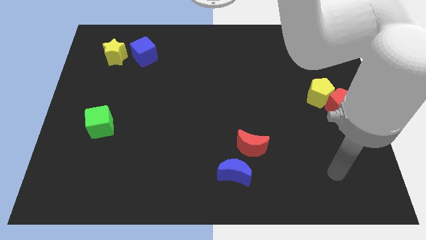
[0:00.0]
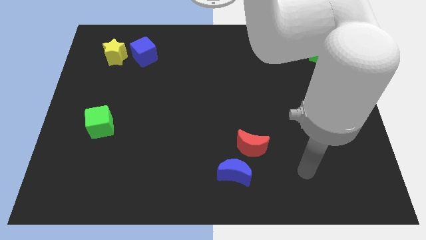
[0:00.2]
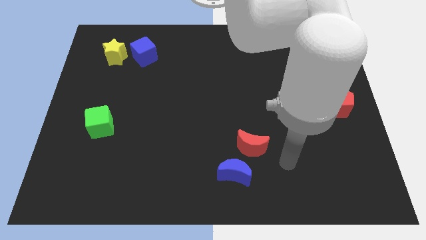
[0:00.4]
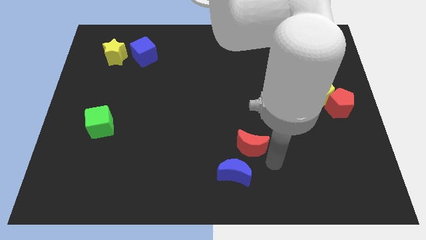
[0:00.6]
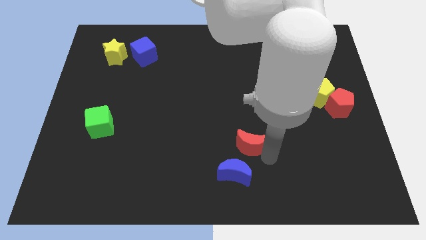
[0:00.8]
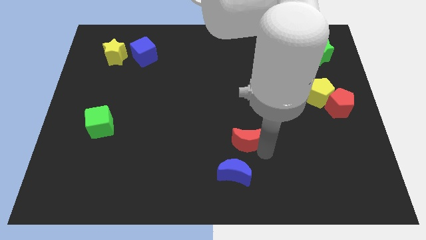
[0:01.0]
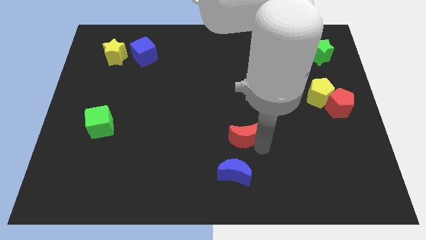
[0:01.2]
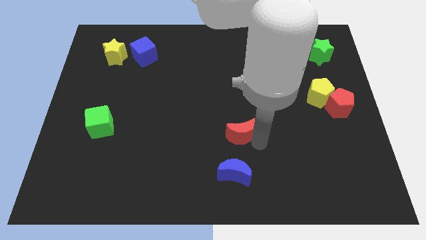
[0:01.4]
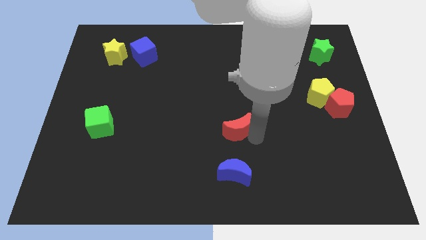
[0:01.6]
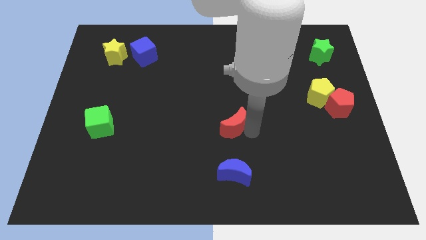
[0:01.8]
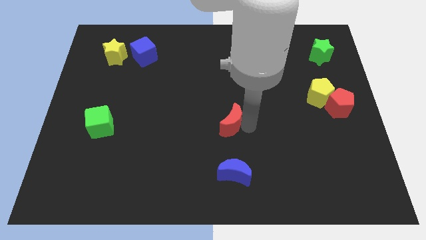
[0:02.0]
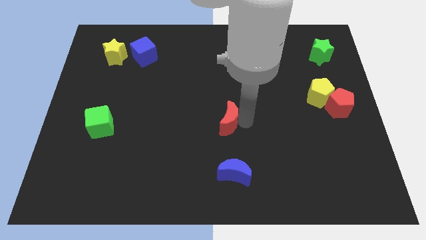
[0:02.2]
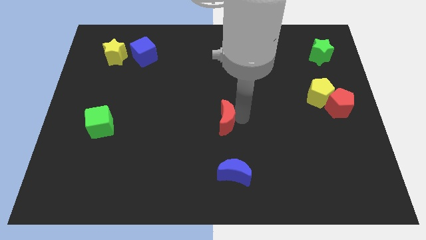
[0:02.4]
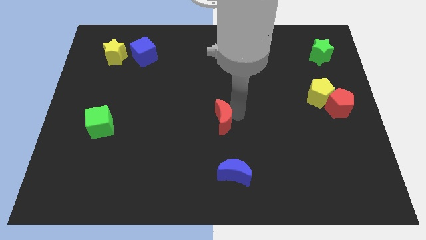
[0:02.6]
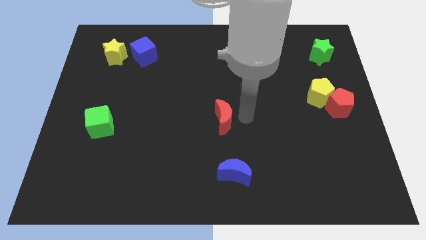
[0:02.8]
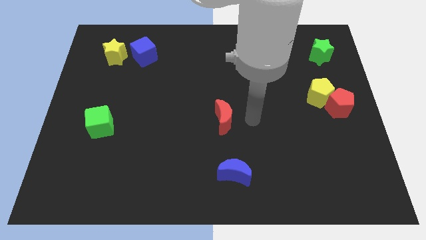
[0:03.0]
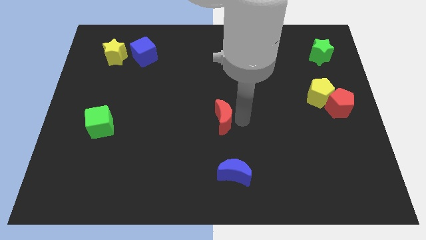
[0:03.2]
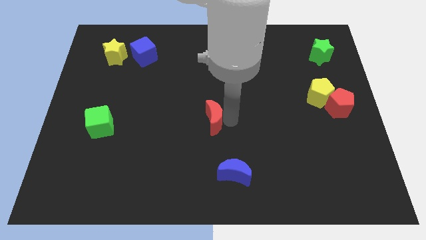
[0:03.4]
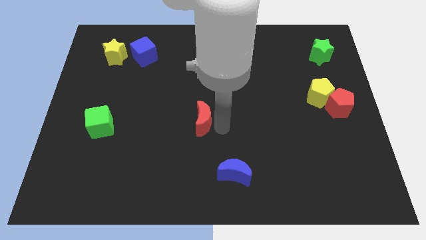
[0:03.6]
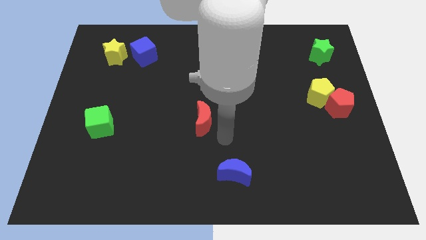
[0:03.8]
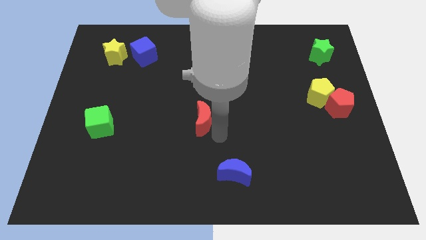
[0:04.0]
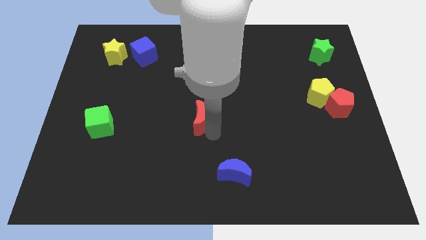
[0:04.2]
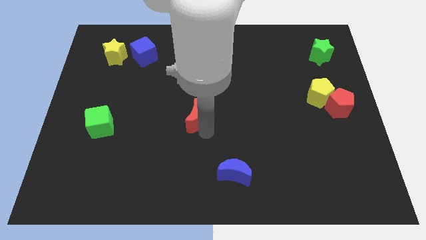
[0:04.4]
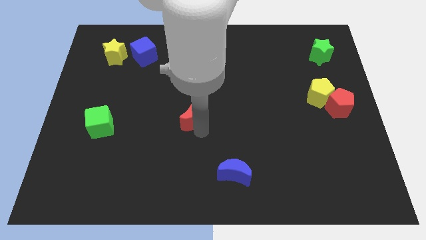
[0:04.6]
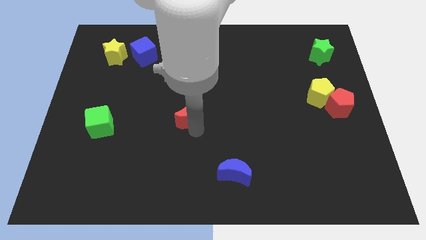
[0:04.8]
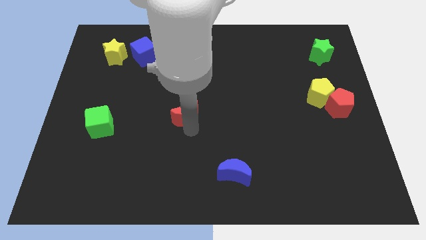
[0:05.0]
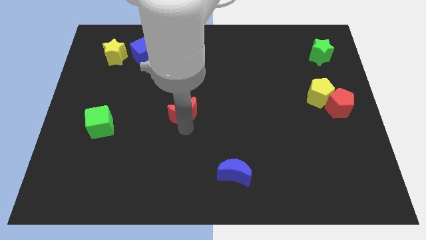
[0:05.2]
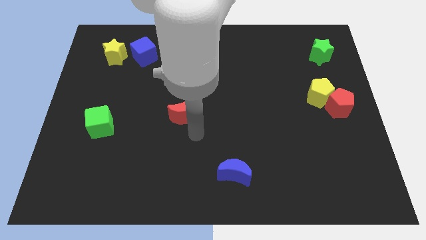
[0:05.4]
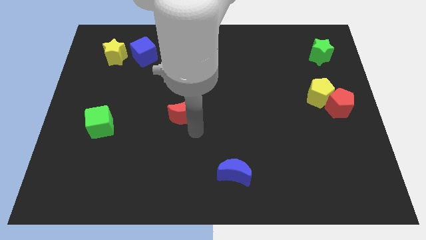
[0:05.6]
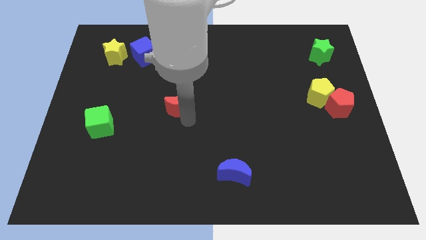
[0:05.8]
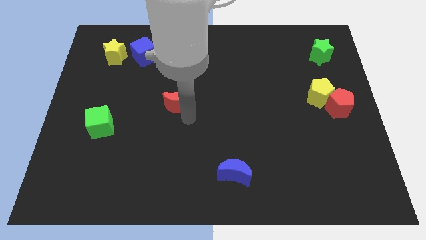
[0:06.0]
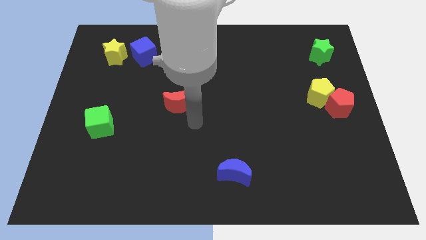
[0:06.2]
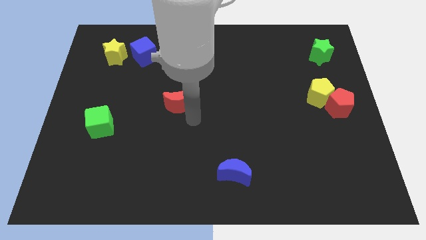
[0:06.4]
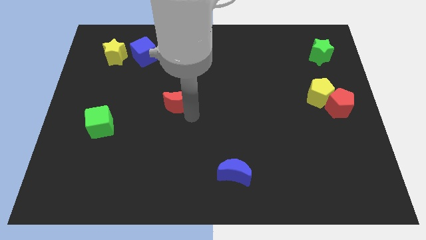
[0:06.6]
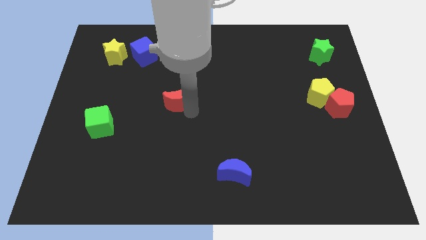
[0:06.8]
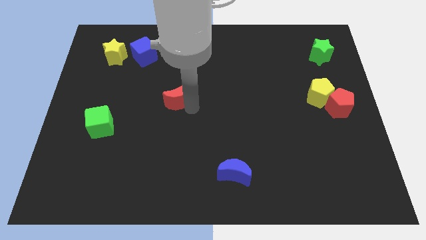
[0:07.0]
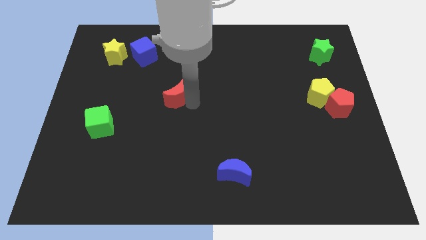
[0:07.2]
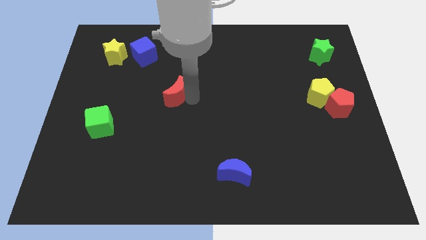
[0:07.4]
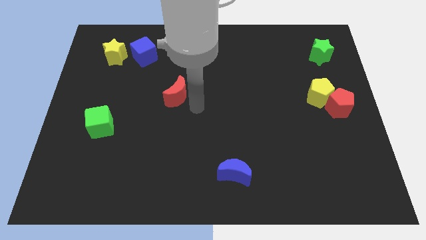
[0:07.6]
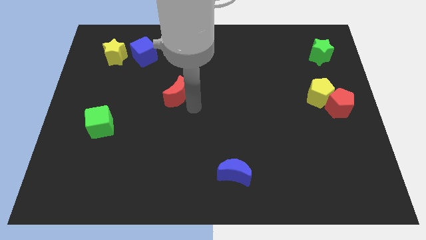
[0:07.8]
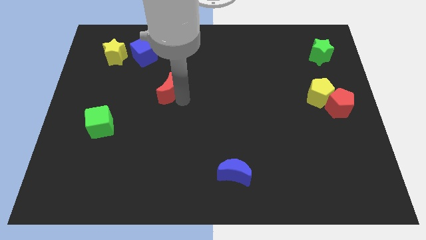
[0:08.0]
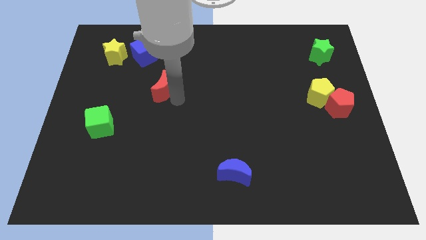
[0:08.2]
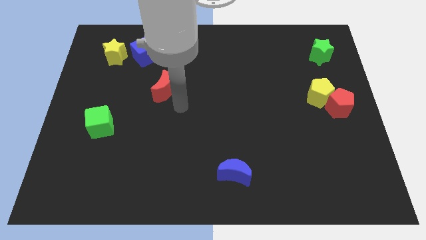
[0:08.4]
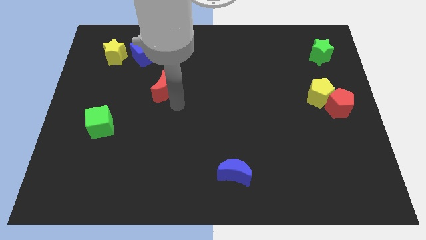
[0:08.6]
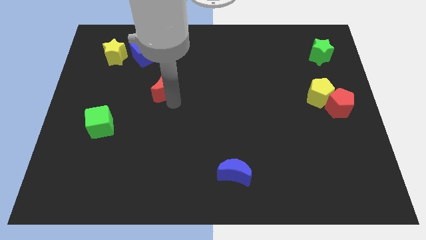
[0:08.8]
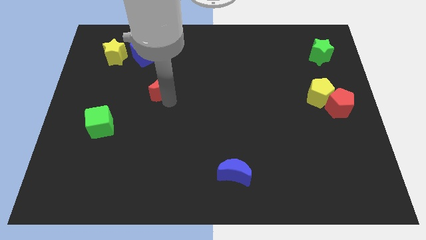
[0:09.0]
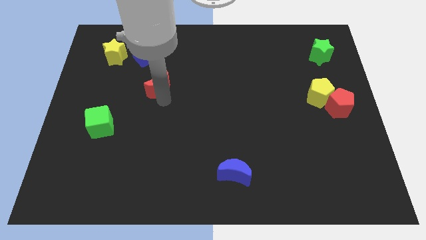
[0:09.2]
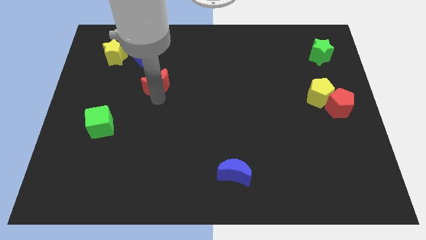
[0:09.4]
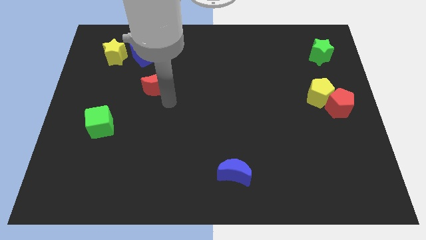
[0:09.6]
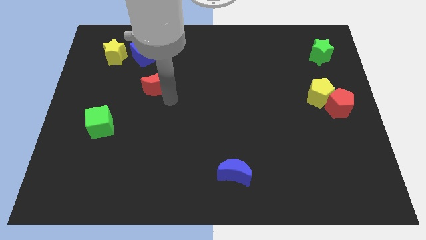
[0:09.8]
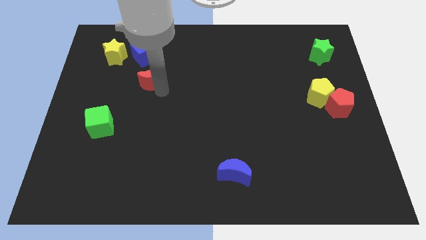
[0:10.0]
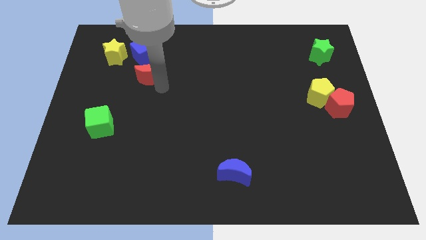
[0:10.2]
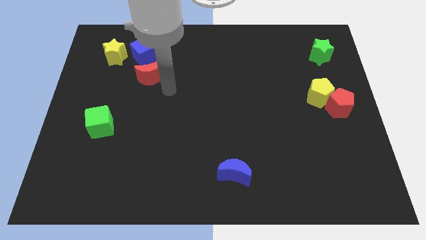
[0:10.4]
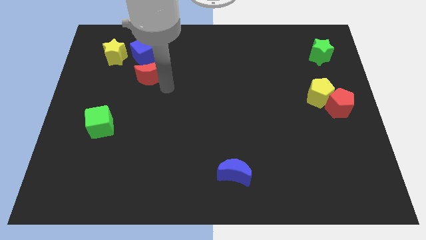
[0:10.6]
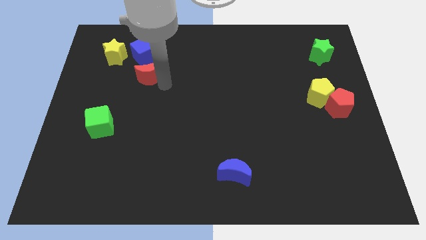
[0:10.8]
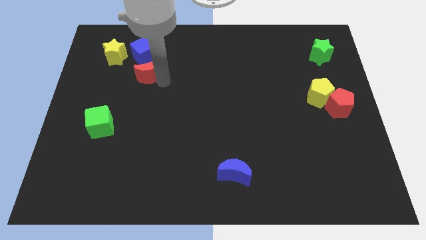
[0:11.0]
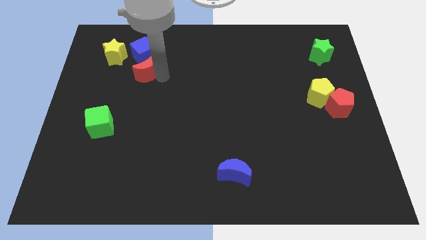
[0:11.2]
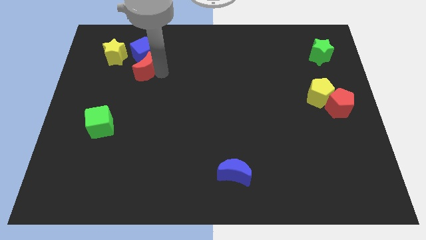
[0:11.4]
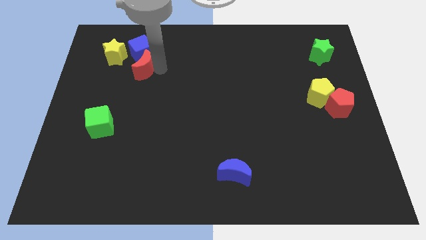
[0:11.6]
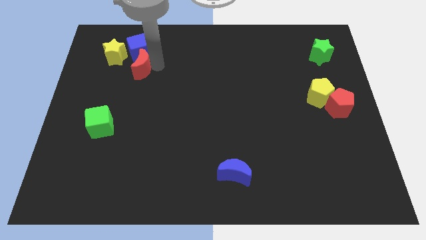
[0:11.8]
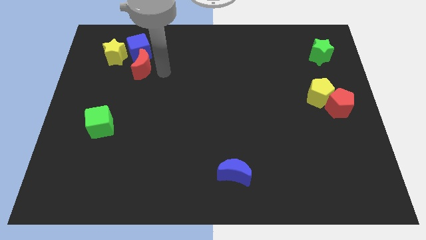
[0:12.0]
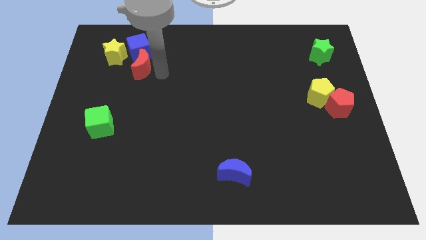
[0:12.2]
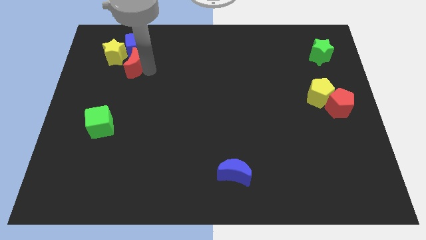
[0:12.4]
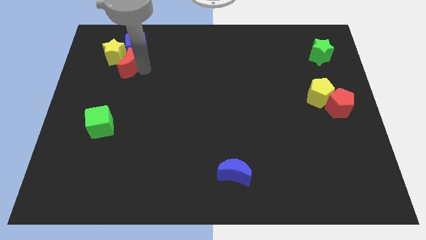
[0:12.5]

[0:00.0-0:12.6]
move the red moon close to the yellow star
